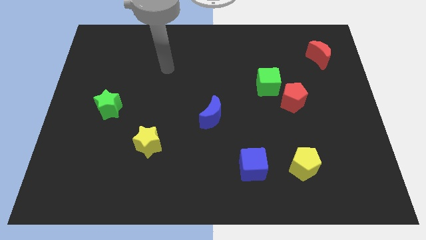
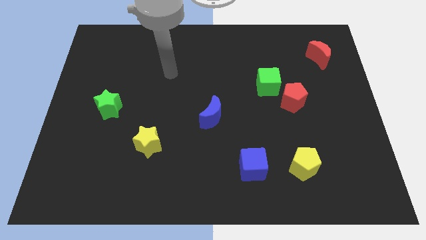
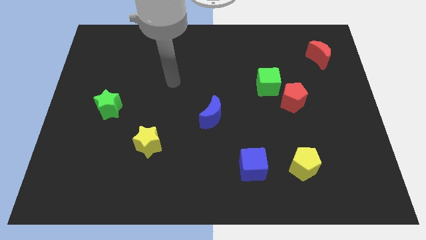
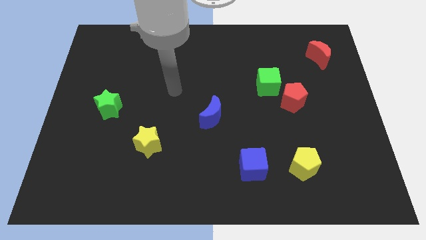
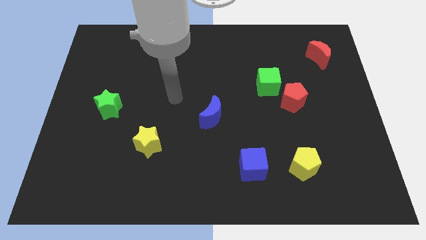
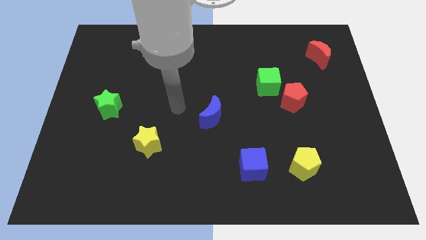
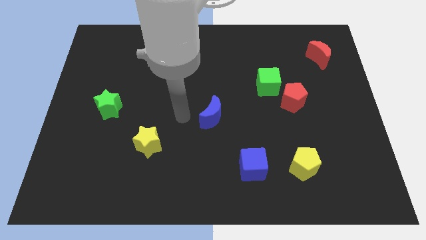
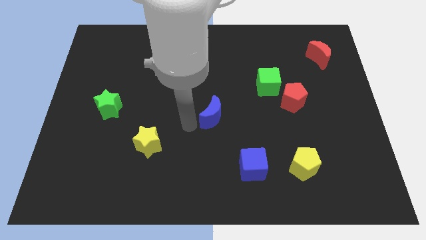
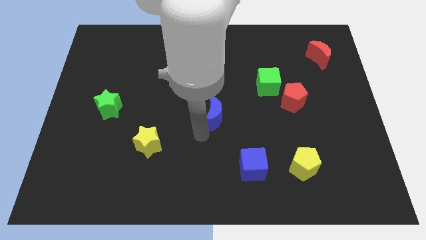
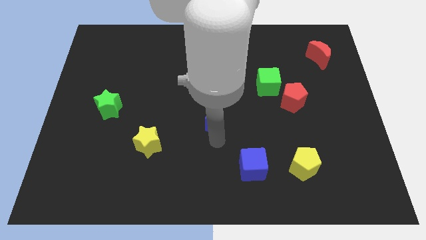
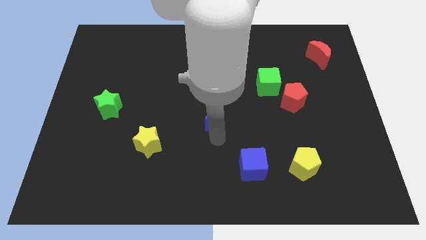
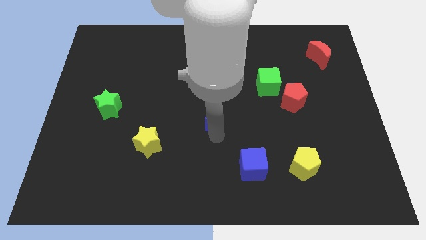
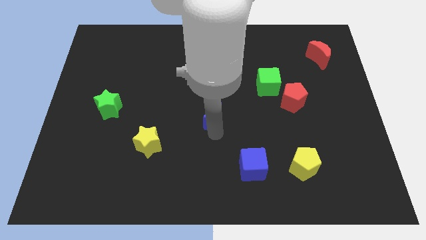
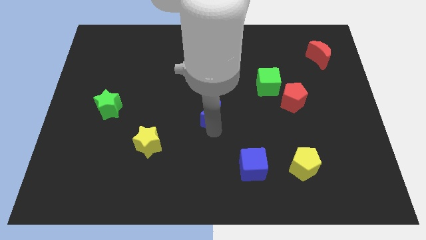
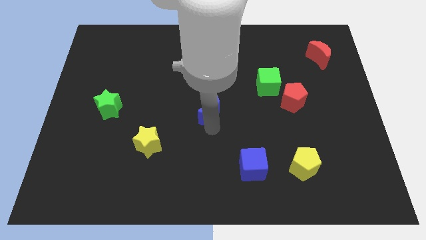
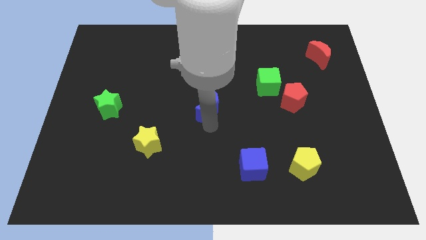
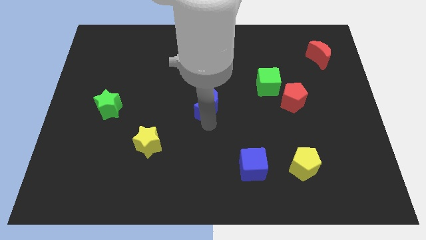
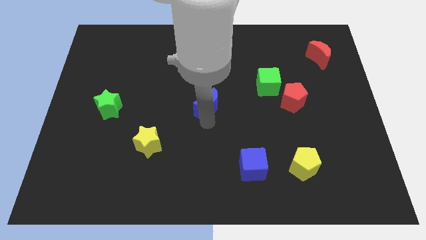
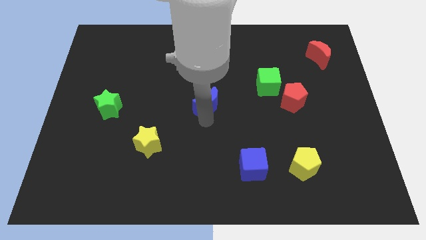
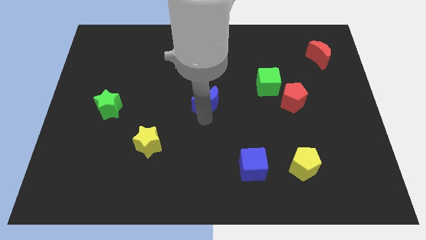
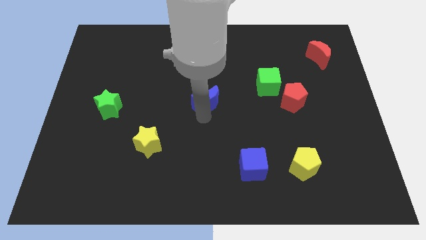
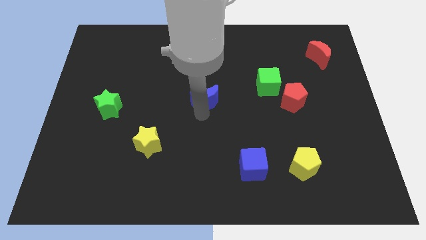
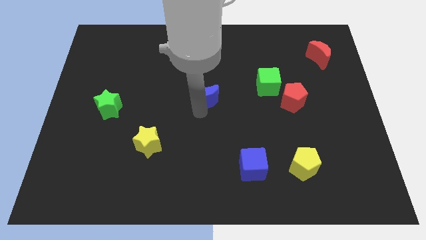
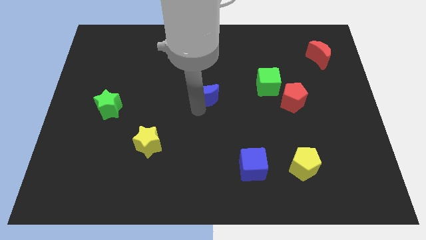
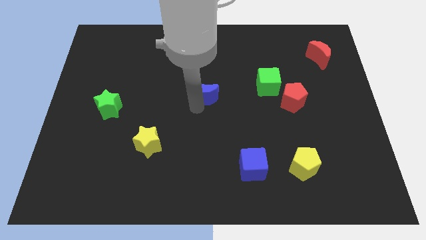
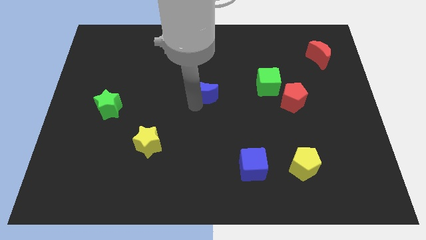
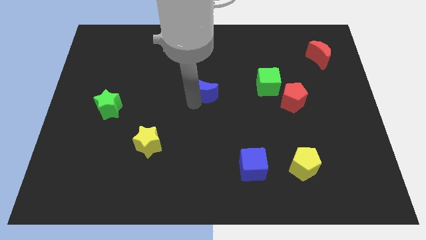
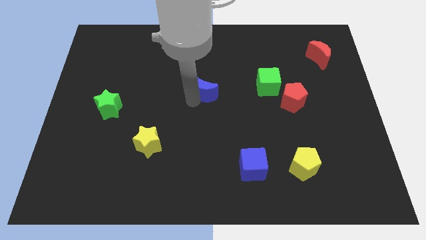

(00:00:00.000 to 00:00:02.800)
slide the blue moon up a little bit

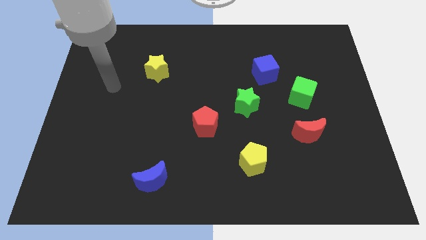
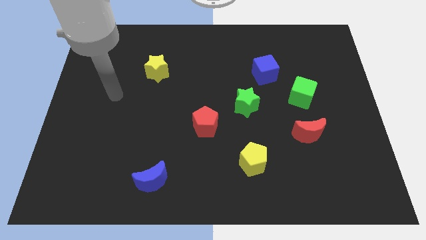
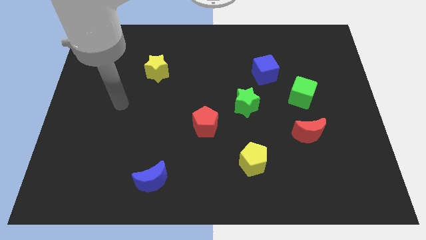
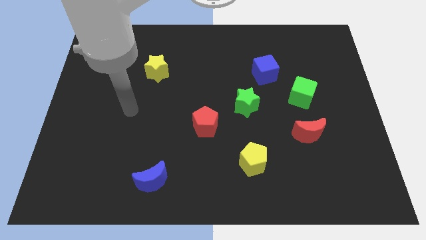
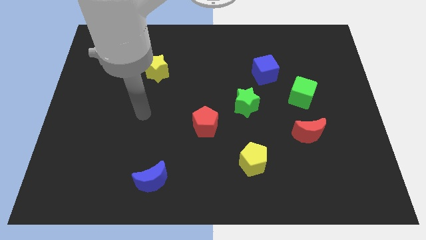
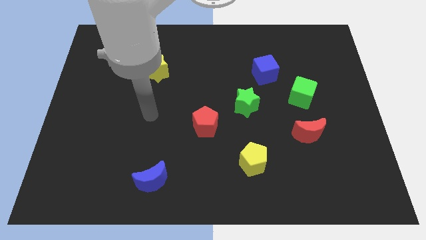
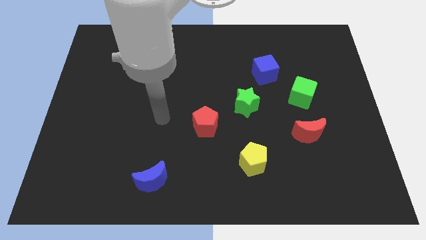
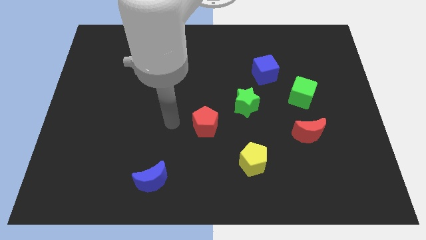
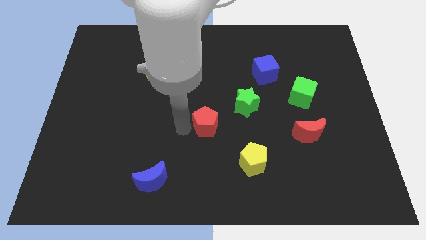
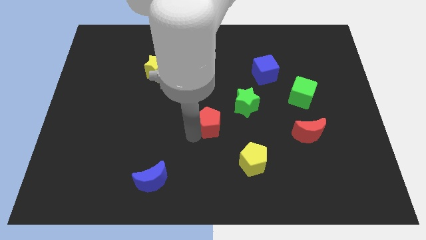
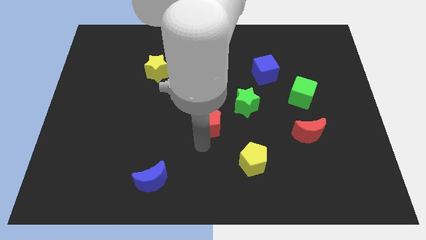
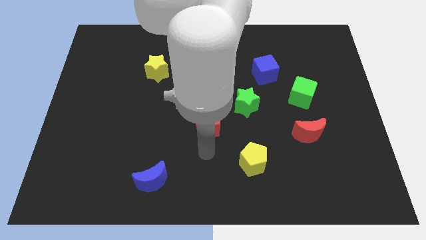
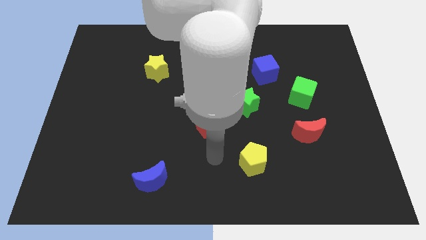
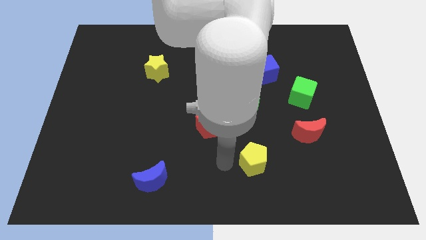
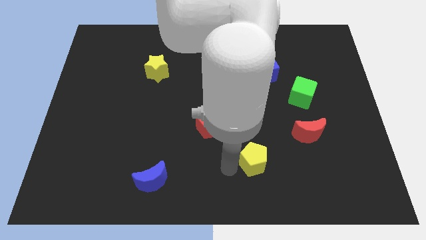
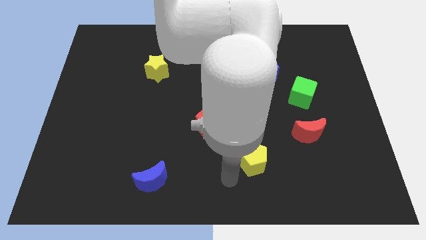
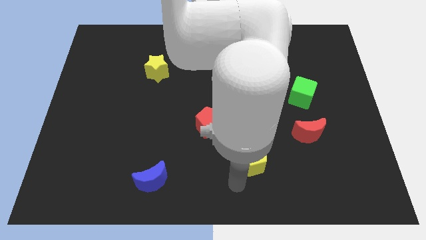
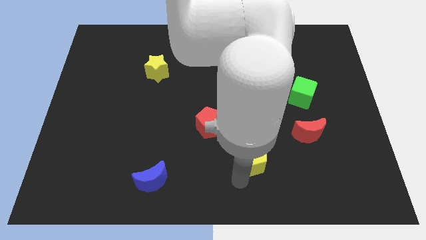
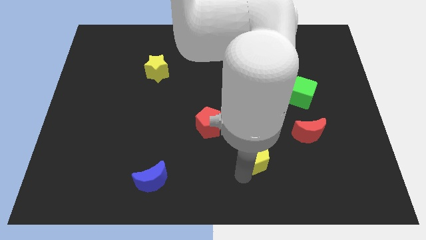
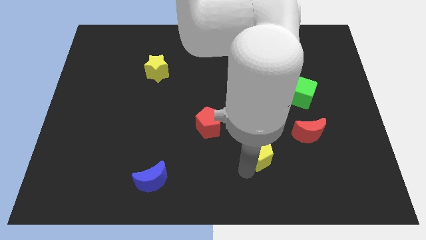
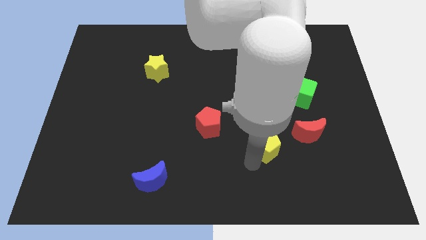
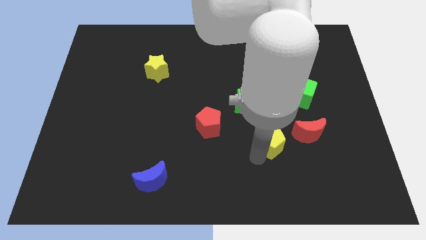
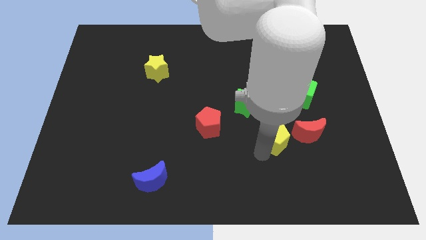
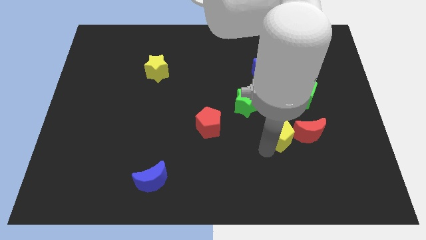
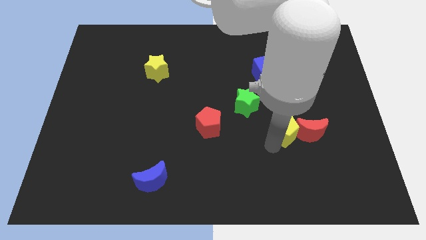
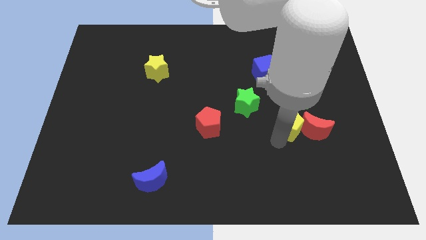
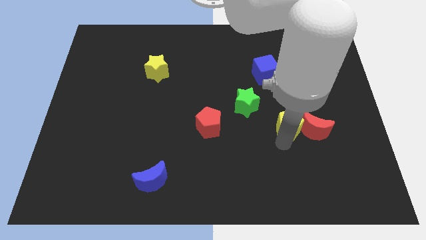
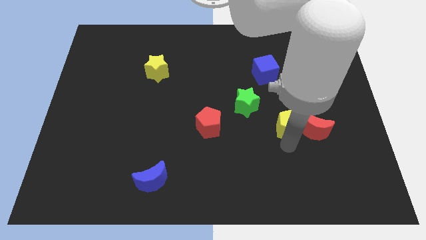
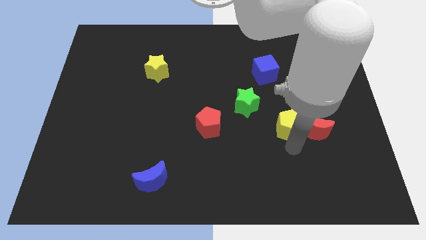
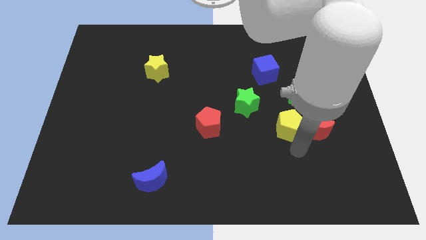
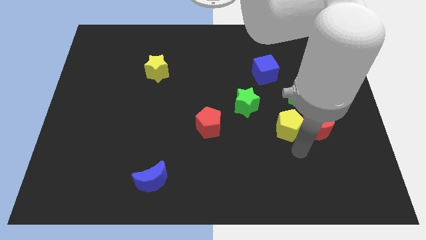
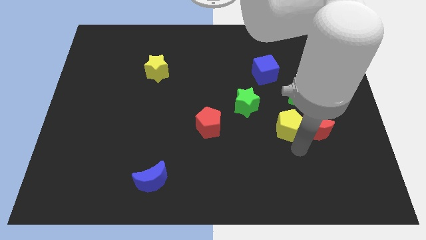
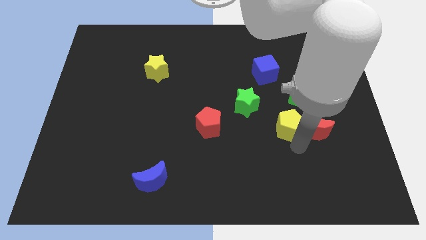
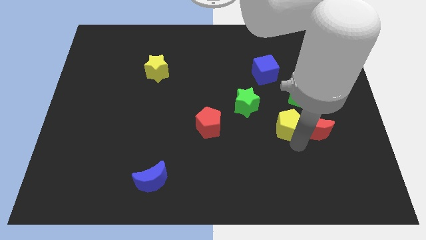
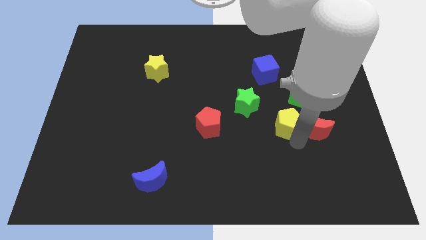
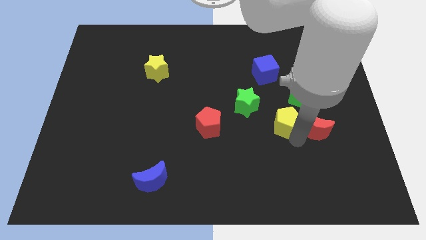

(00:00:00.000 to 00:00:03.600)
slide the yellow pentagon upwards slightly

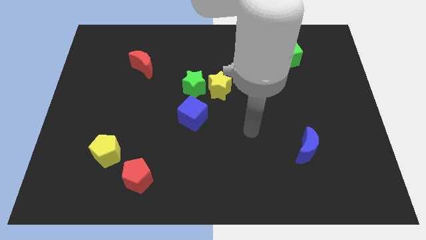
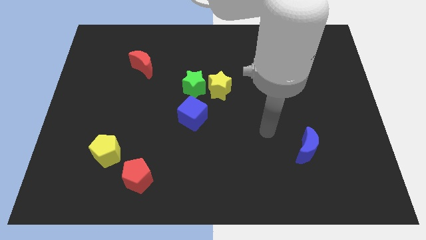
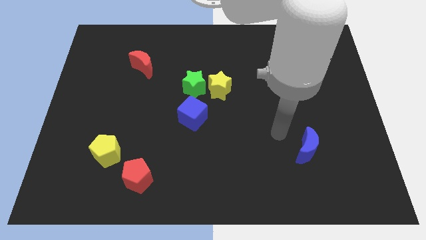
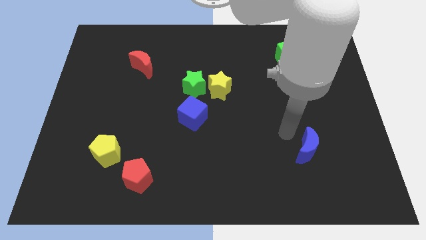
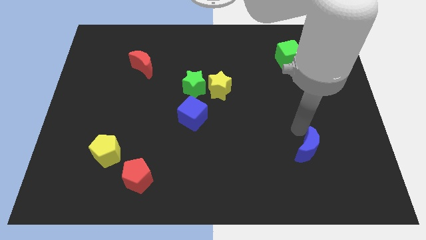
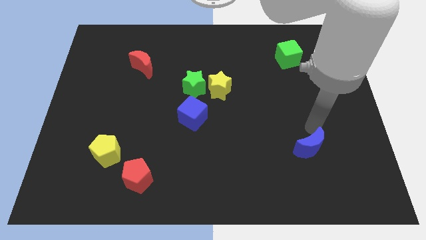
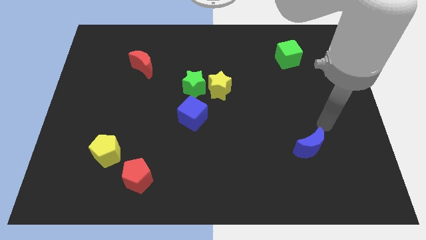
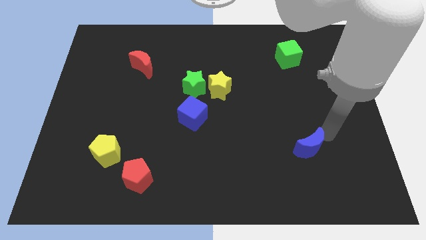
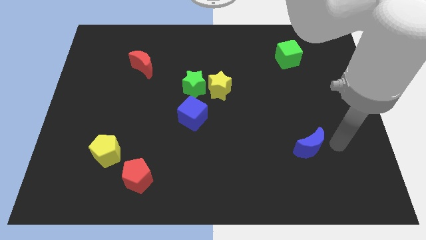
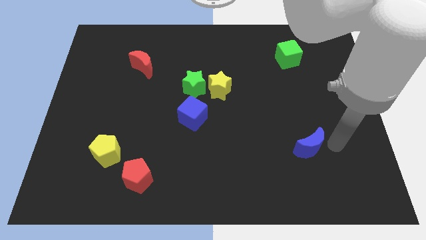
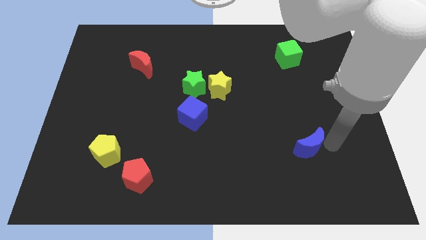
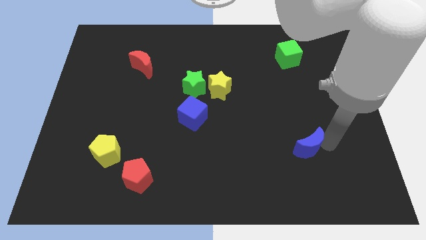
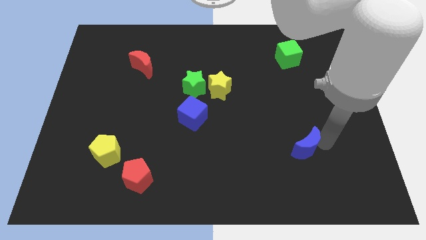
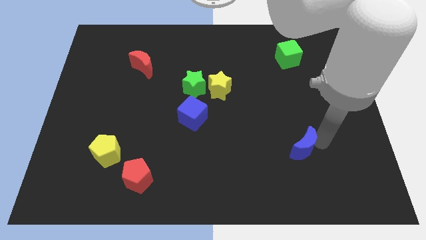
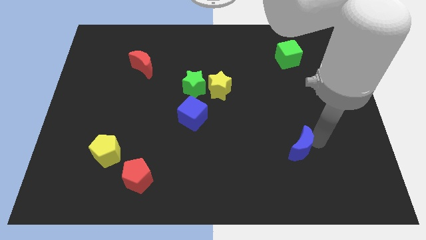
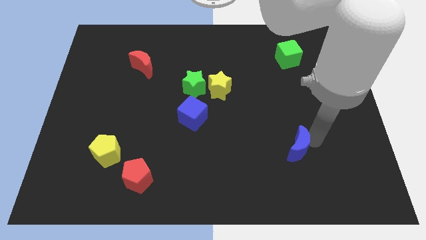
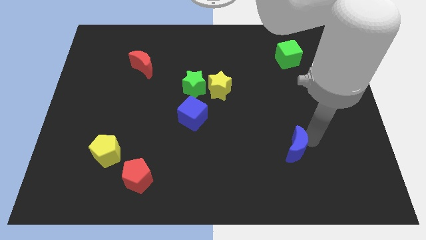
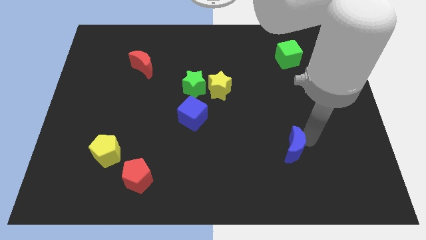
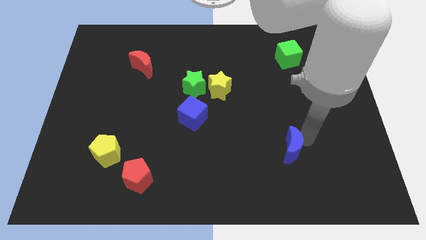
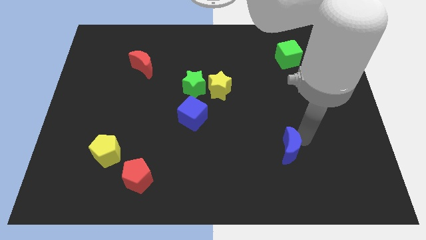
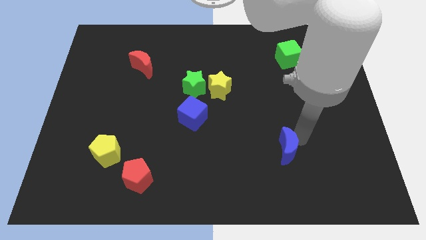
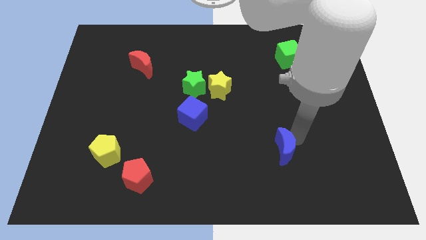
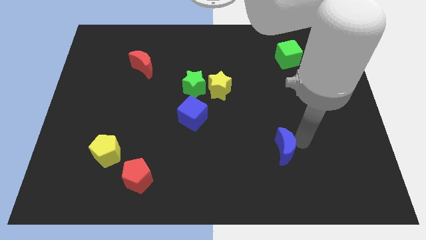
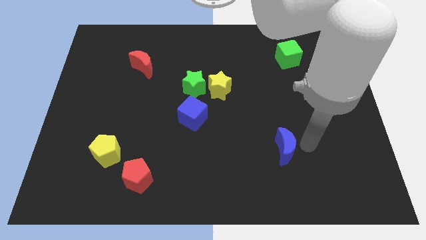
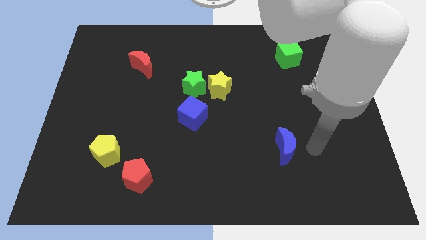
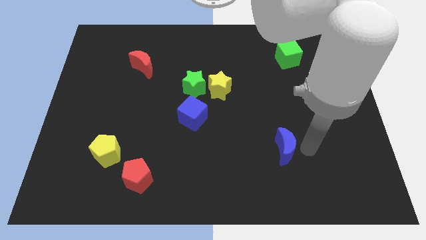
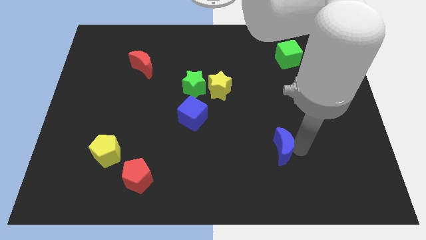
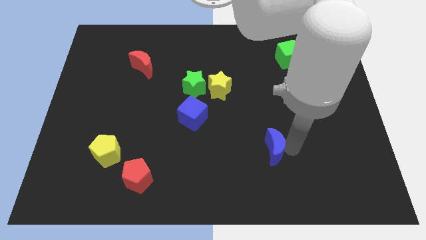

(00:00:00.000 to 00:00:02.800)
slightly slide the blue moon left
